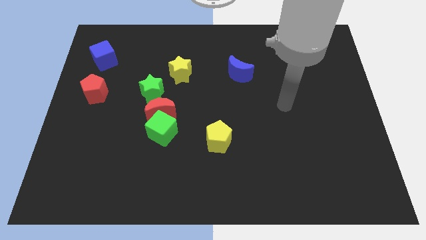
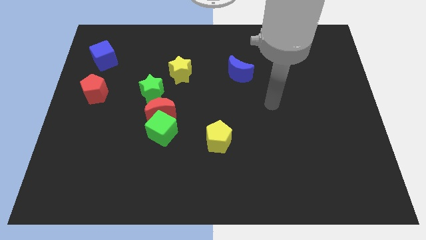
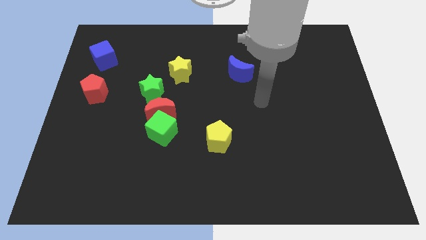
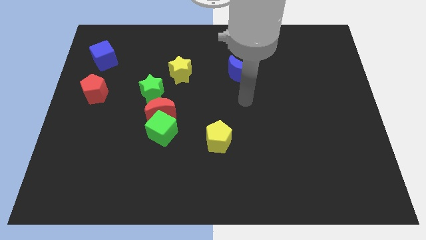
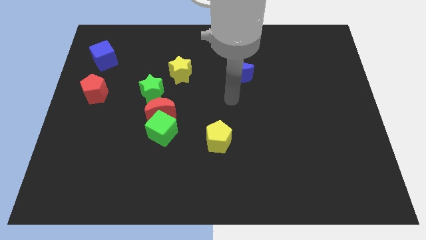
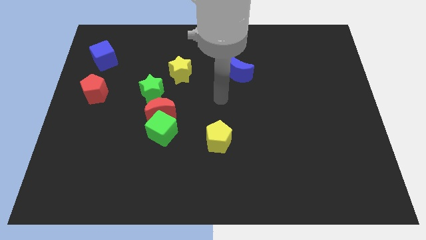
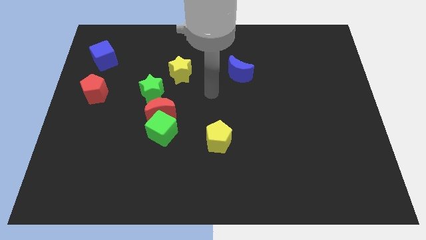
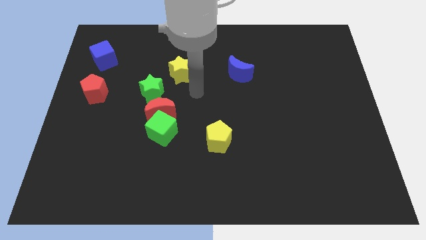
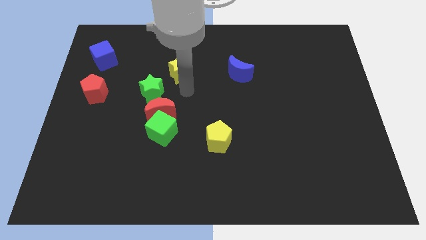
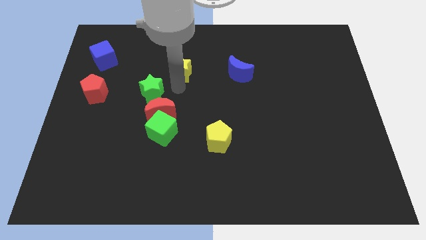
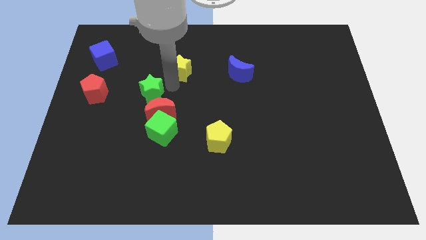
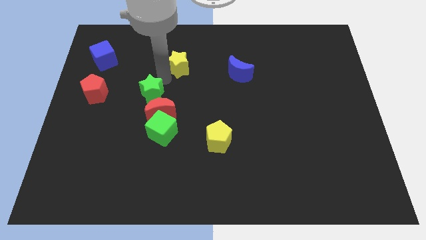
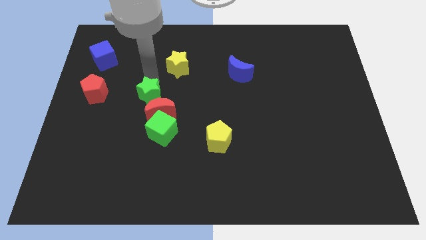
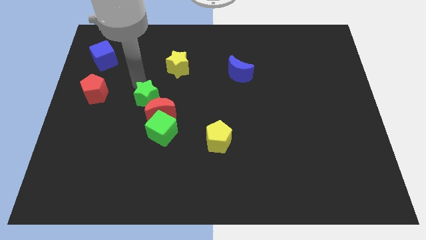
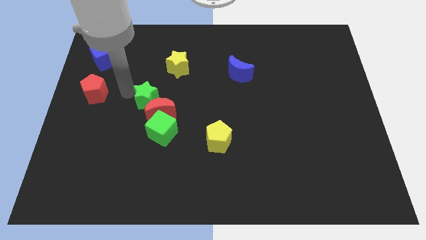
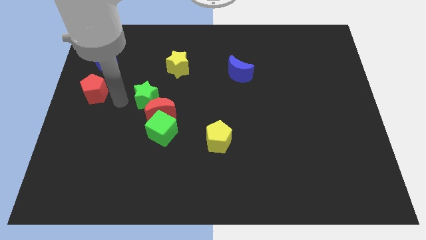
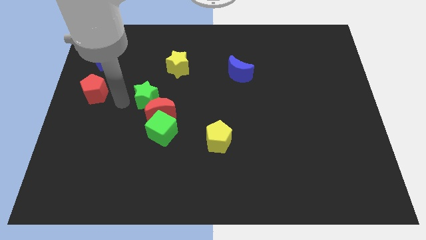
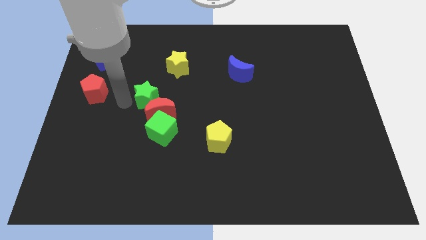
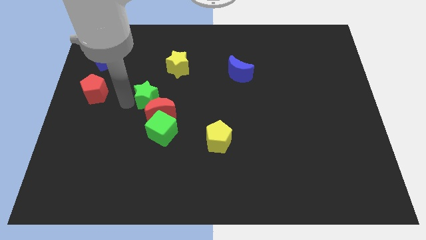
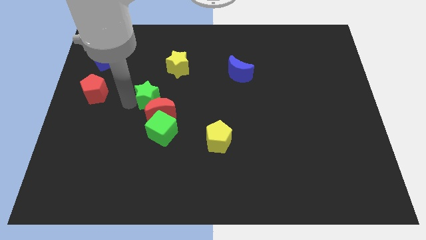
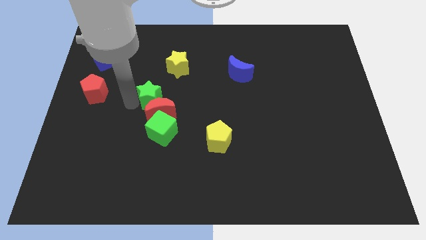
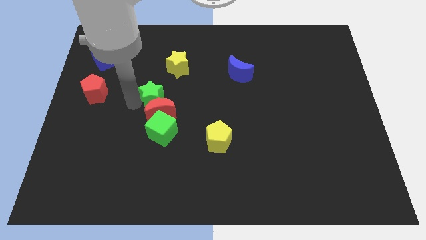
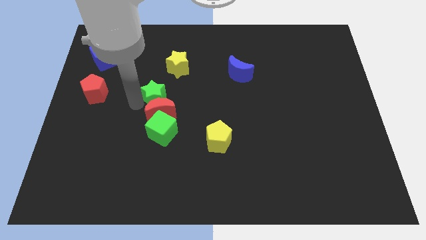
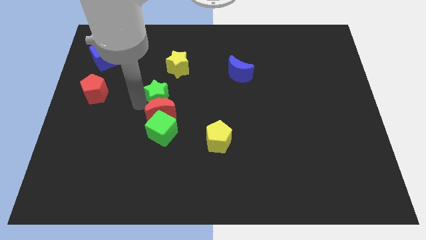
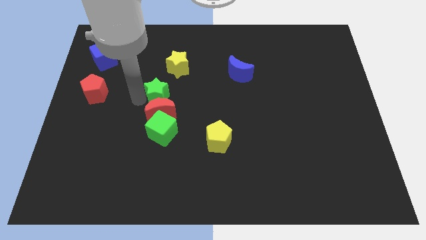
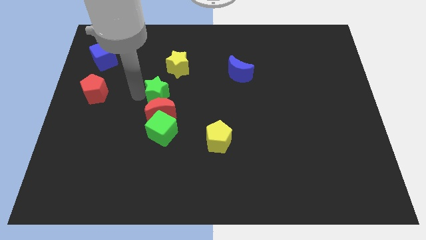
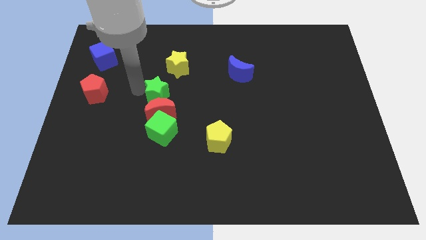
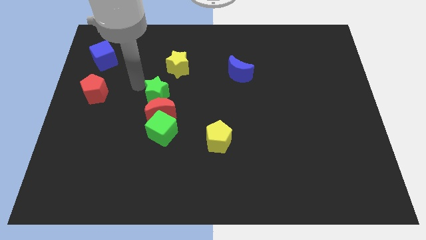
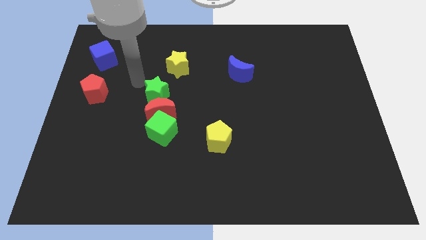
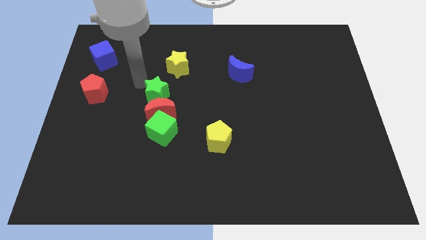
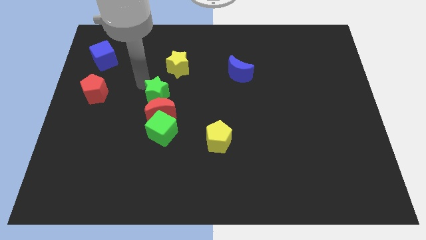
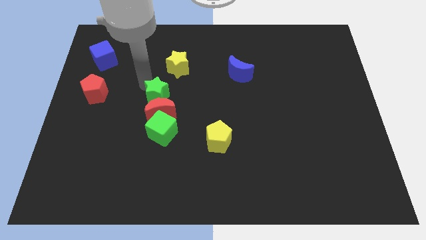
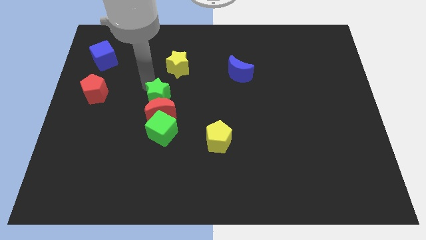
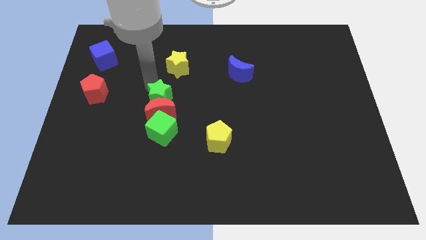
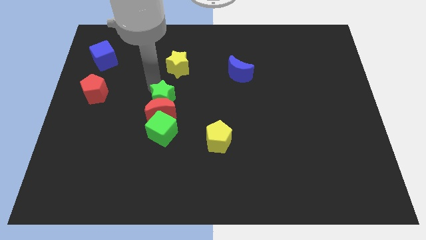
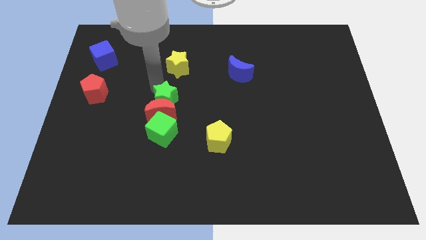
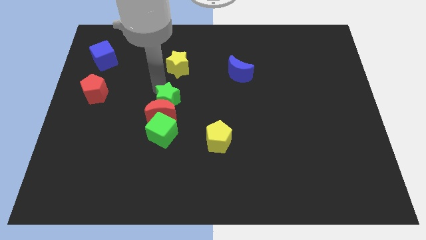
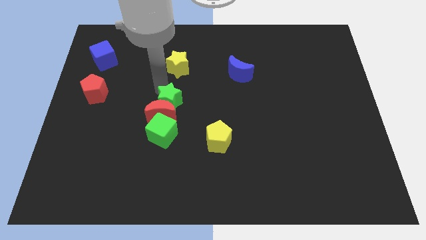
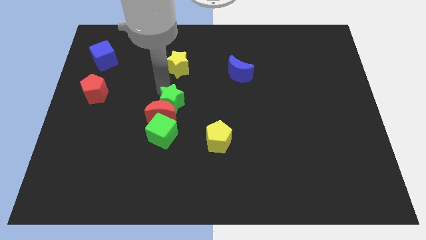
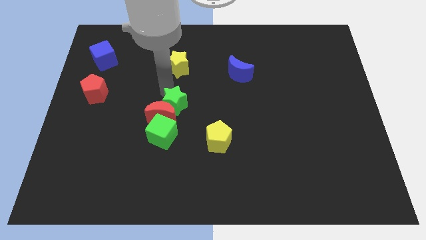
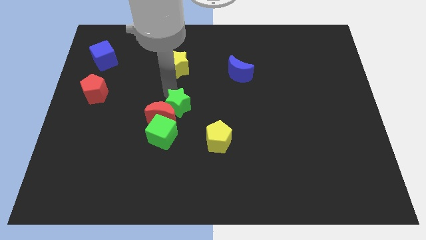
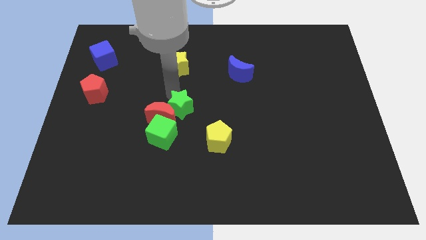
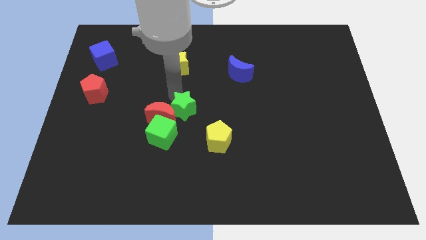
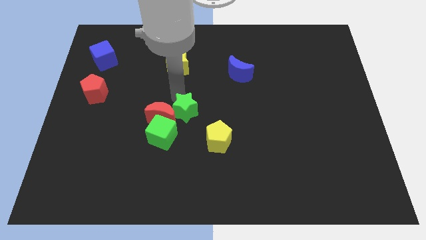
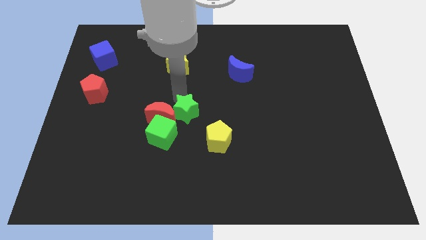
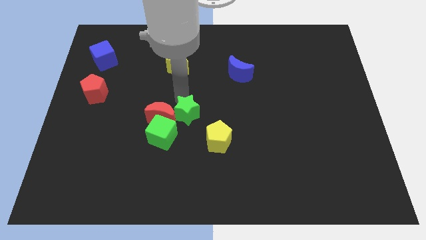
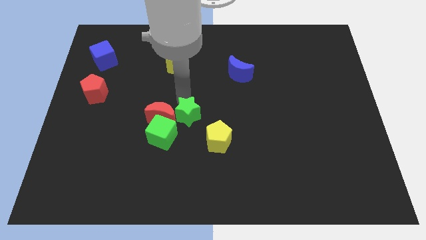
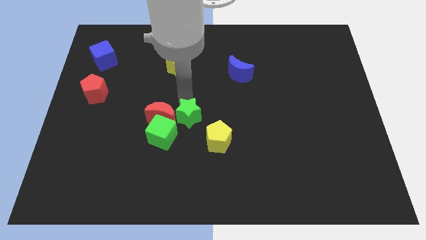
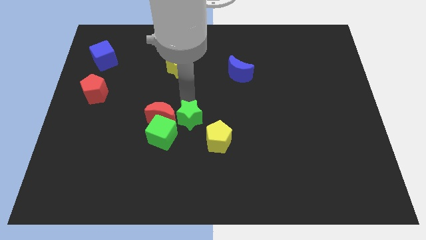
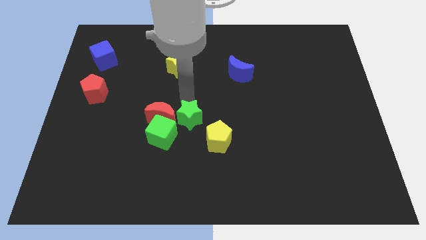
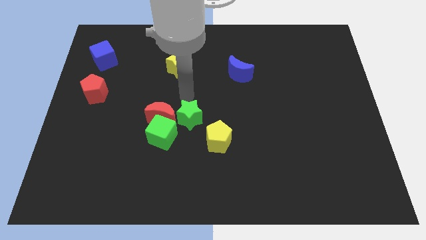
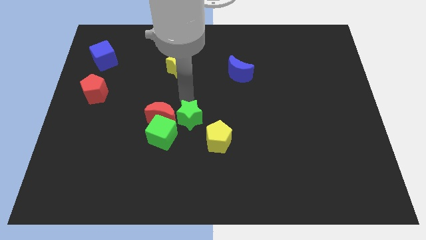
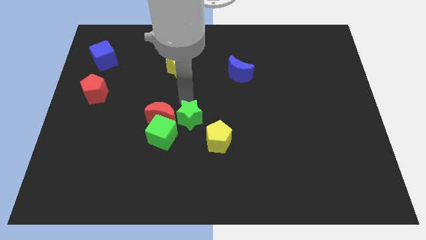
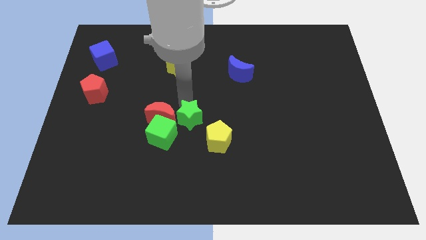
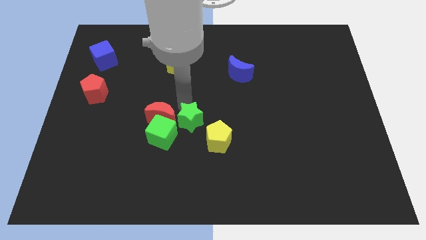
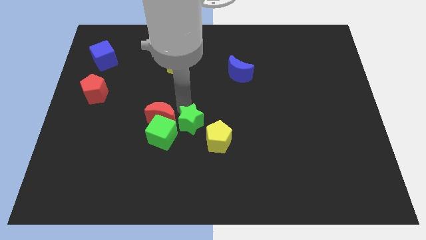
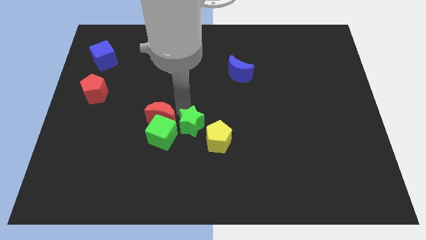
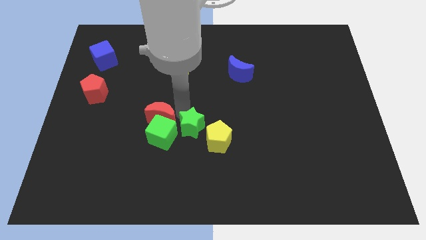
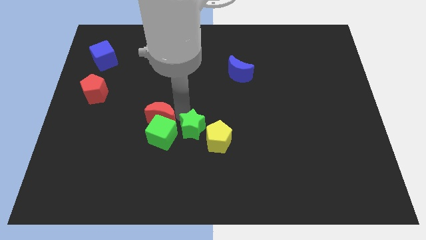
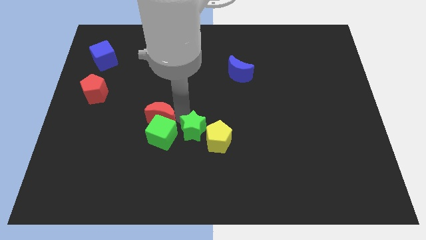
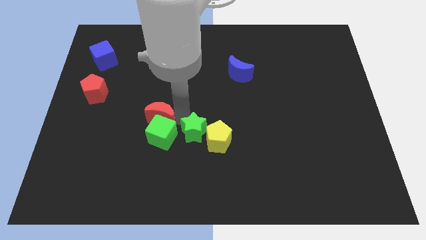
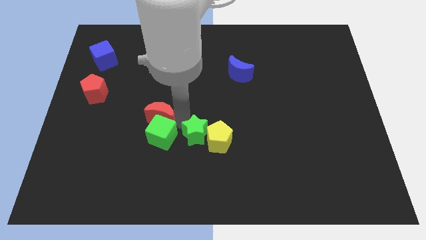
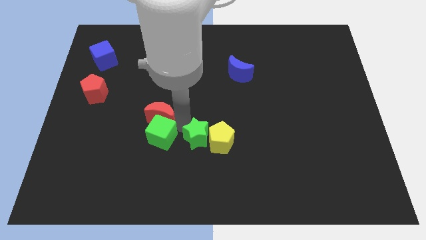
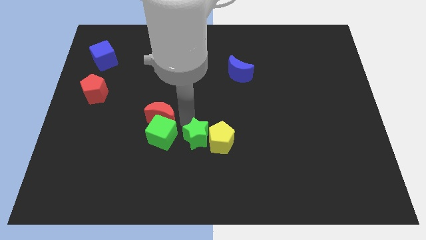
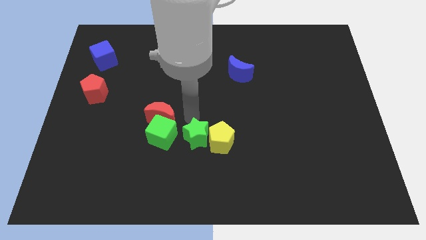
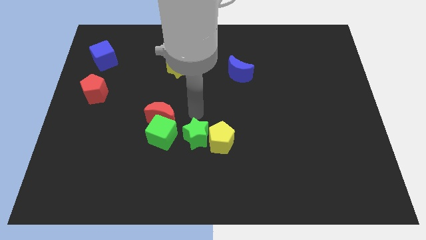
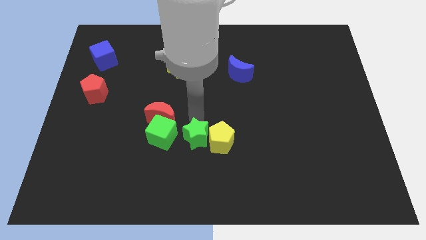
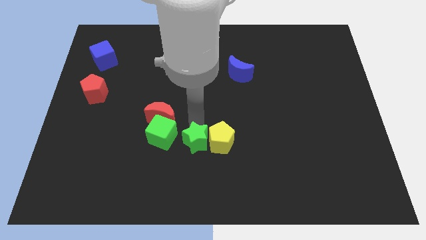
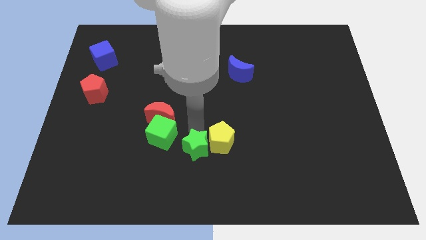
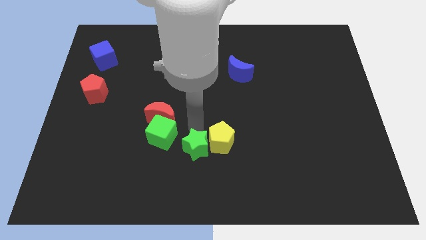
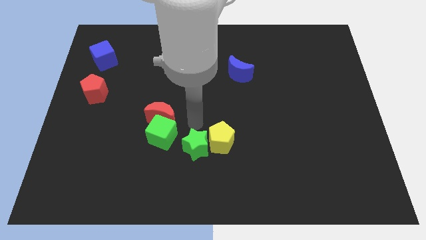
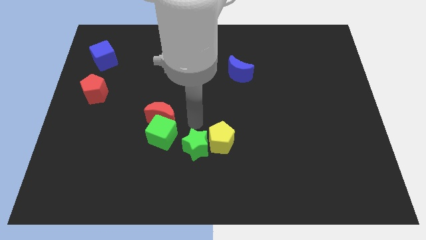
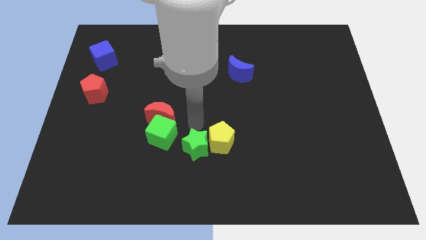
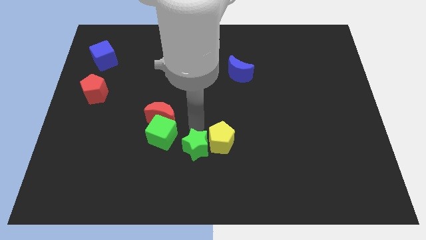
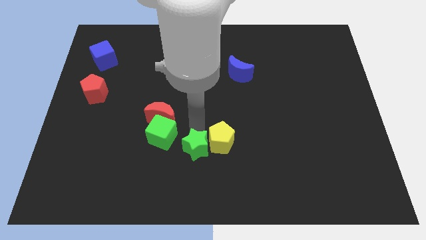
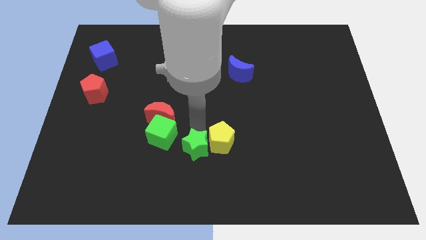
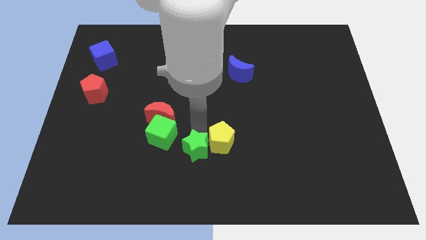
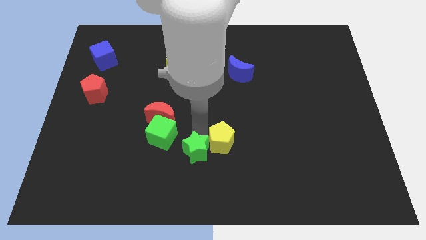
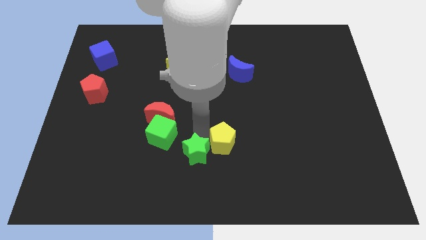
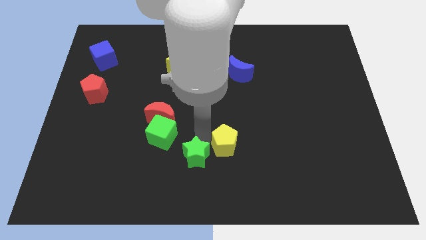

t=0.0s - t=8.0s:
slide the green star to the bottom
